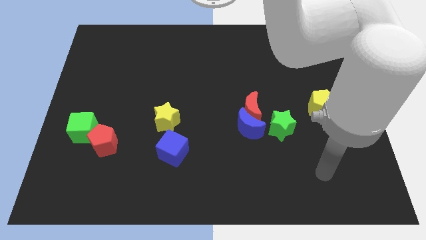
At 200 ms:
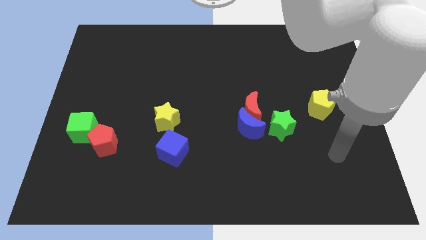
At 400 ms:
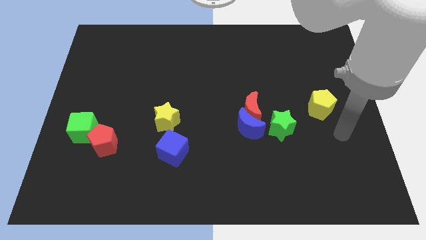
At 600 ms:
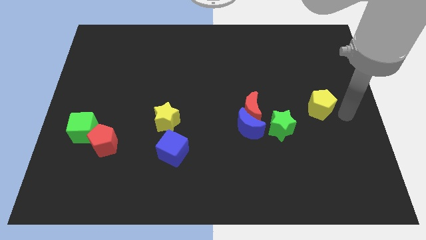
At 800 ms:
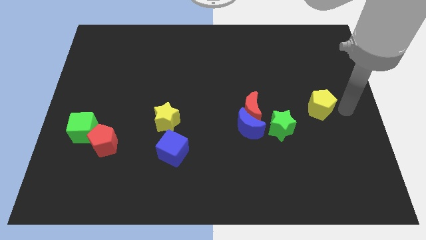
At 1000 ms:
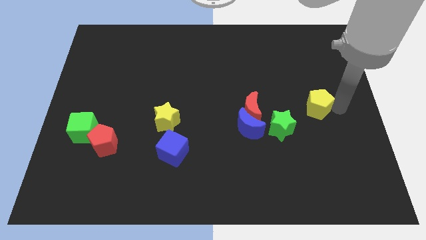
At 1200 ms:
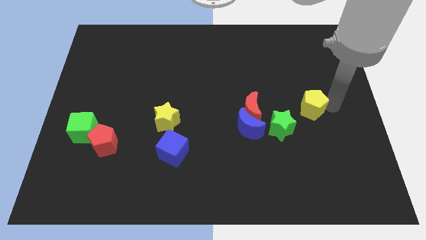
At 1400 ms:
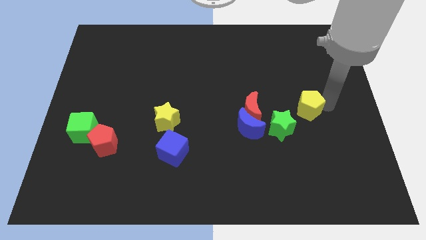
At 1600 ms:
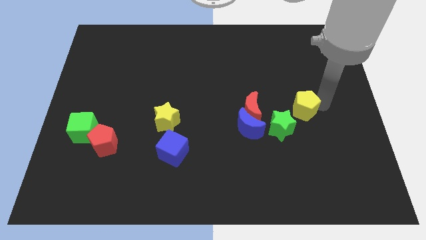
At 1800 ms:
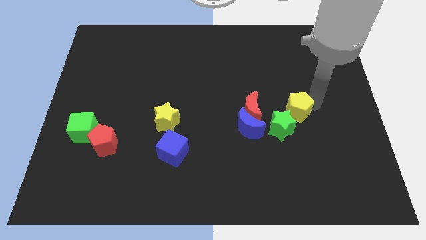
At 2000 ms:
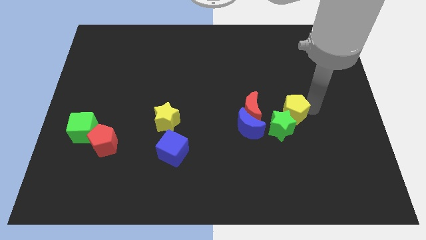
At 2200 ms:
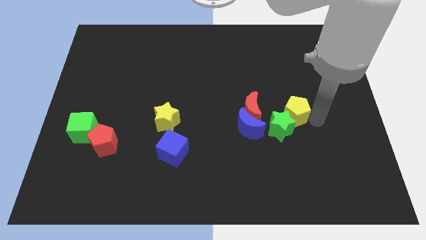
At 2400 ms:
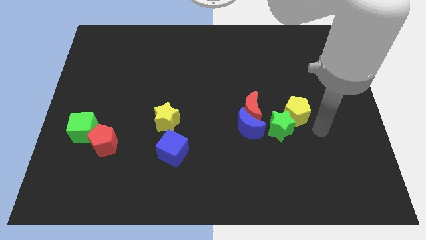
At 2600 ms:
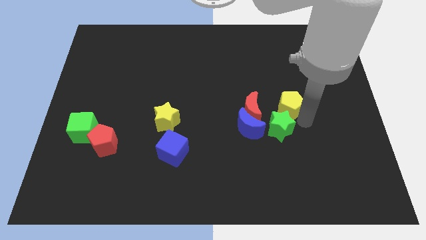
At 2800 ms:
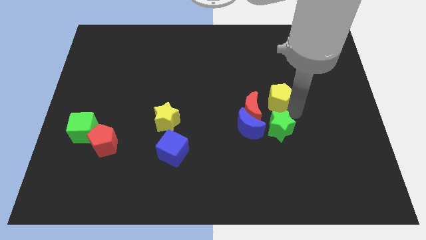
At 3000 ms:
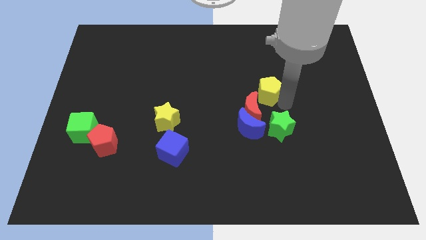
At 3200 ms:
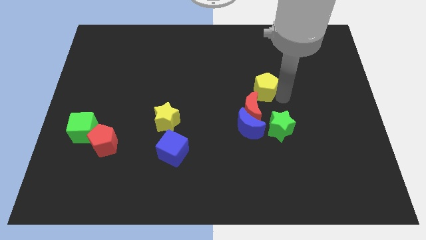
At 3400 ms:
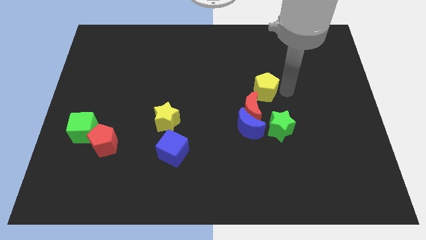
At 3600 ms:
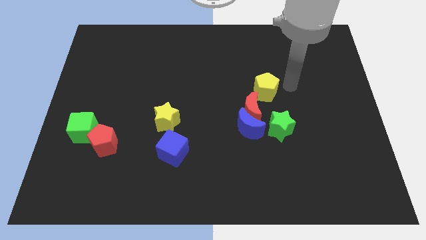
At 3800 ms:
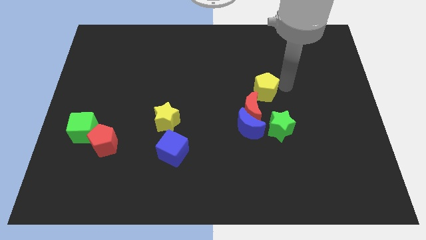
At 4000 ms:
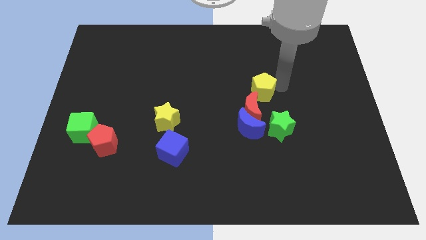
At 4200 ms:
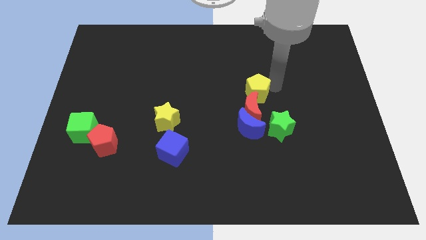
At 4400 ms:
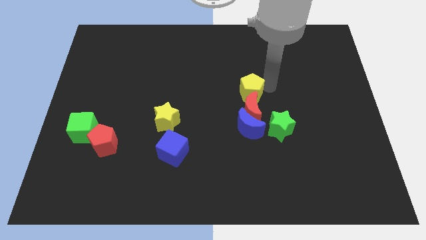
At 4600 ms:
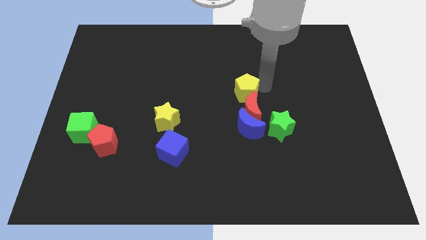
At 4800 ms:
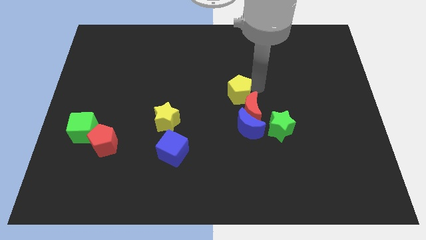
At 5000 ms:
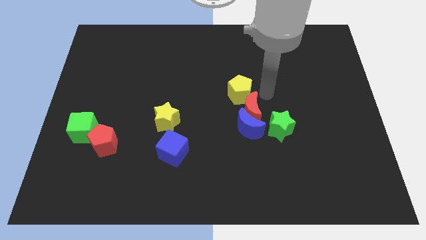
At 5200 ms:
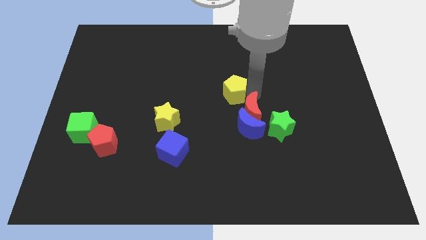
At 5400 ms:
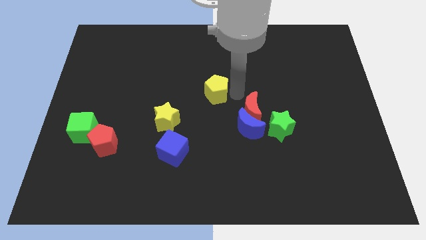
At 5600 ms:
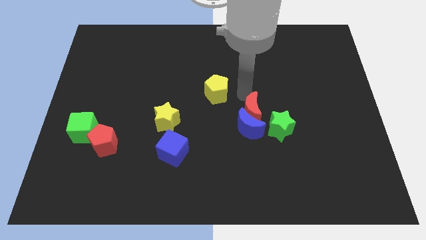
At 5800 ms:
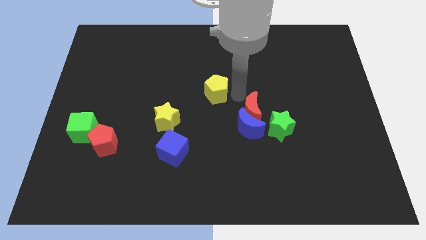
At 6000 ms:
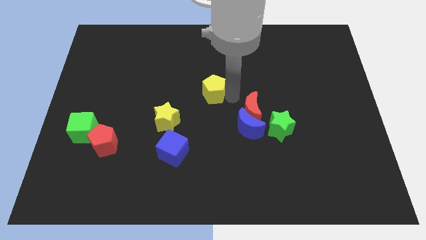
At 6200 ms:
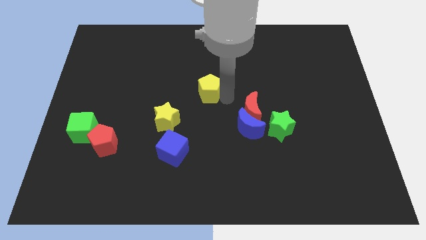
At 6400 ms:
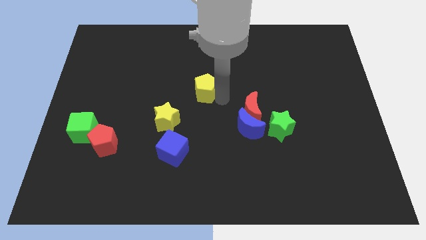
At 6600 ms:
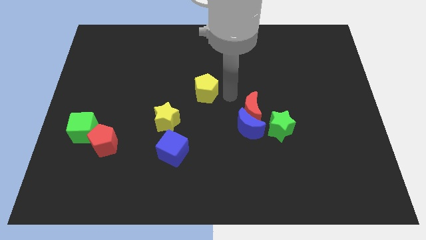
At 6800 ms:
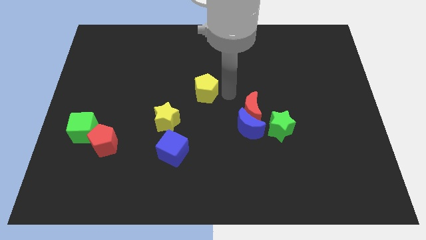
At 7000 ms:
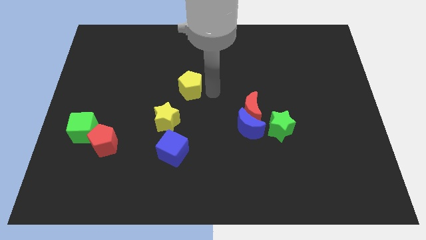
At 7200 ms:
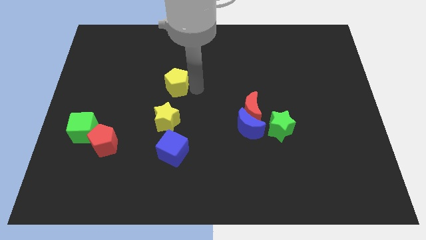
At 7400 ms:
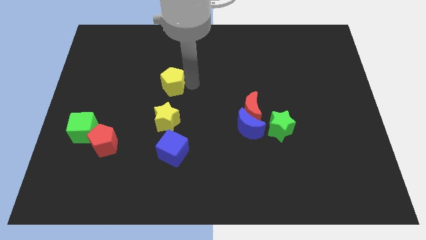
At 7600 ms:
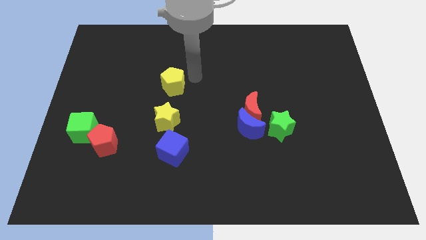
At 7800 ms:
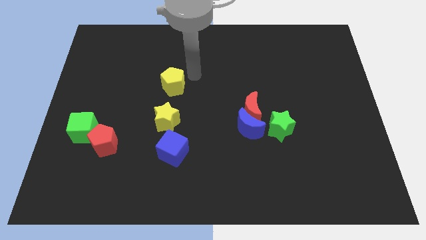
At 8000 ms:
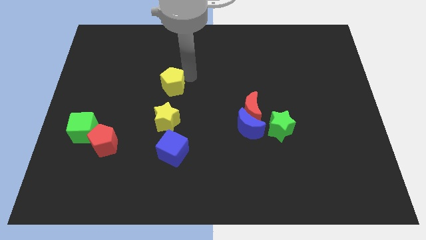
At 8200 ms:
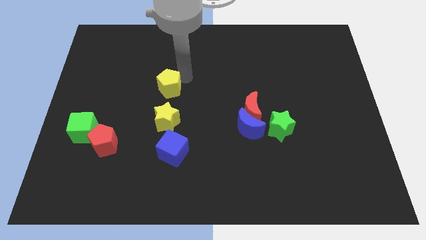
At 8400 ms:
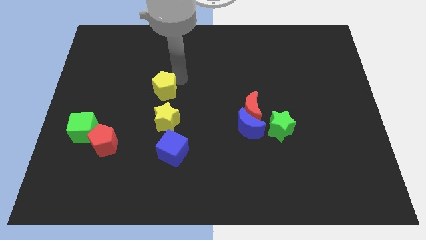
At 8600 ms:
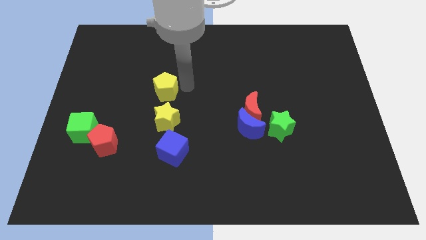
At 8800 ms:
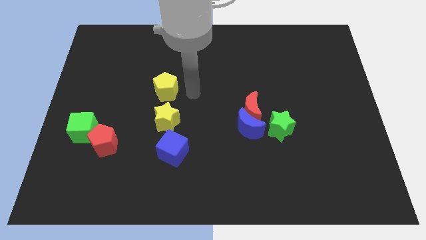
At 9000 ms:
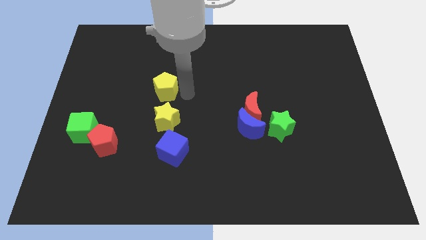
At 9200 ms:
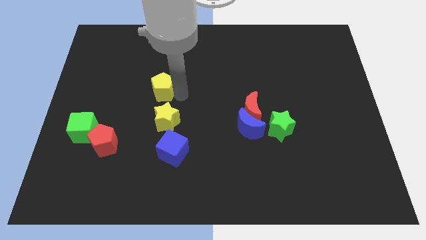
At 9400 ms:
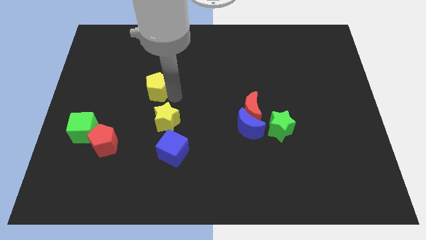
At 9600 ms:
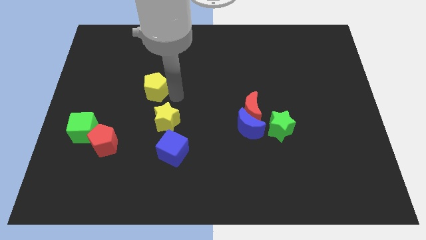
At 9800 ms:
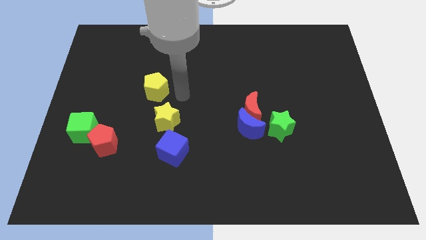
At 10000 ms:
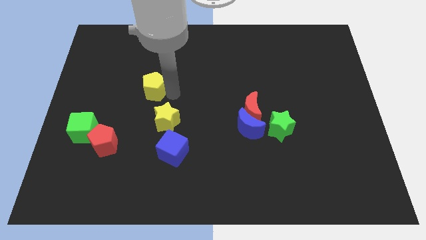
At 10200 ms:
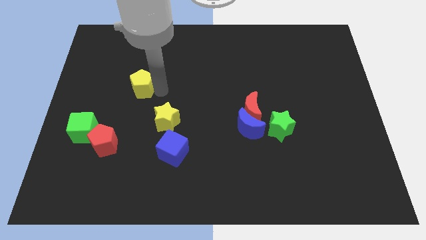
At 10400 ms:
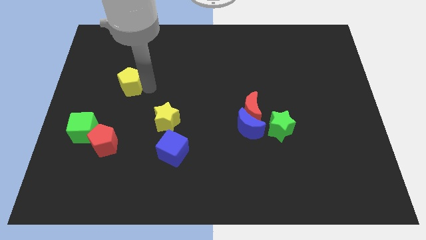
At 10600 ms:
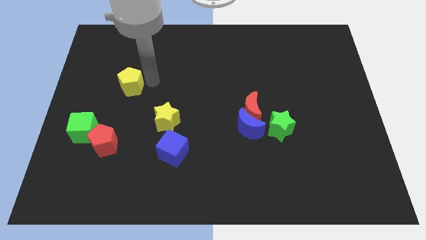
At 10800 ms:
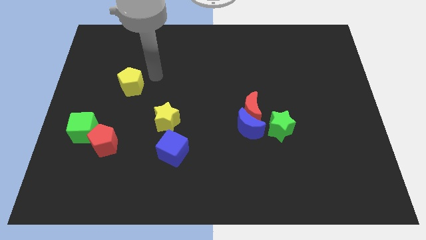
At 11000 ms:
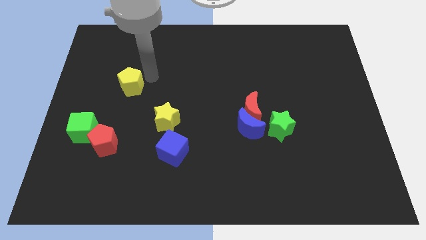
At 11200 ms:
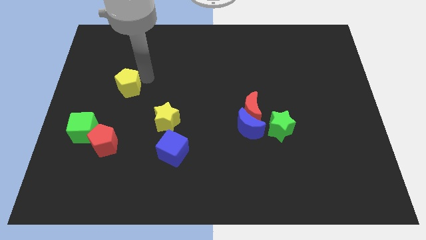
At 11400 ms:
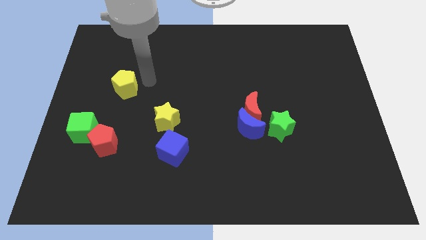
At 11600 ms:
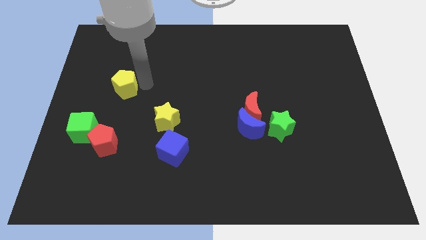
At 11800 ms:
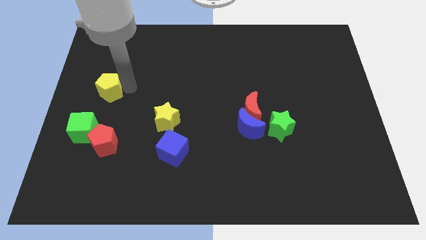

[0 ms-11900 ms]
put the yellow pentagon to the top of the green cube

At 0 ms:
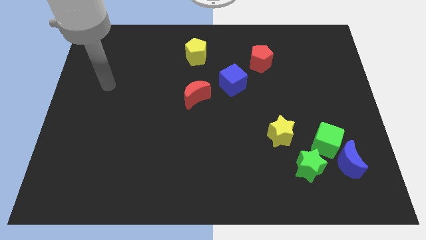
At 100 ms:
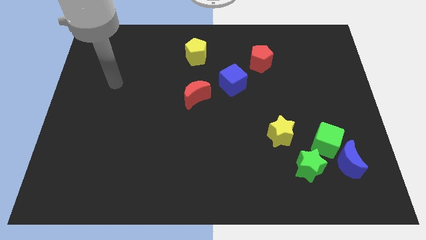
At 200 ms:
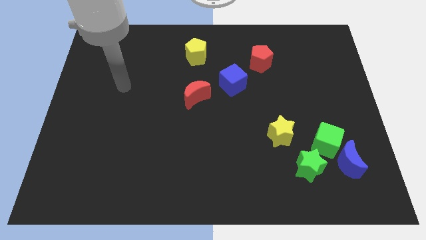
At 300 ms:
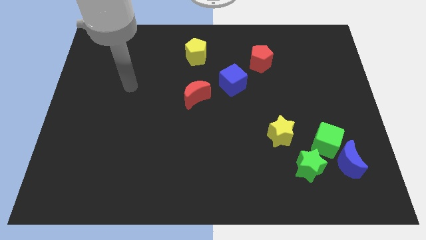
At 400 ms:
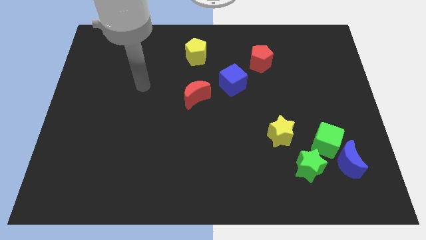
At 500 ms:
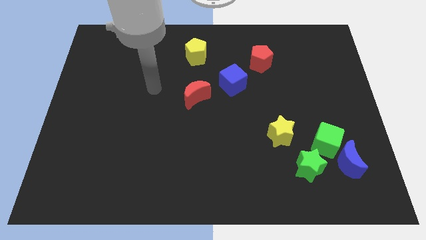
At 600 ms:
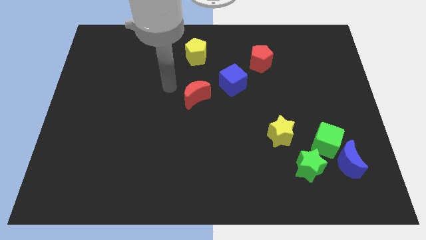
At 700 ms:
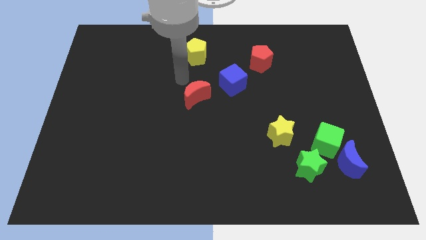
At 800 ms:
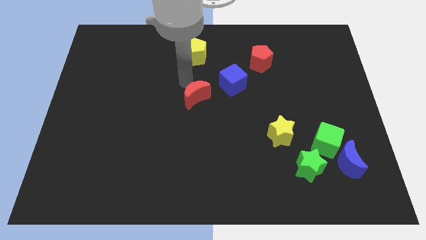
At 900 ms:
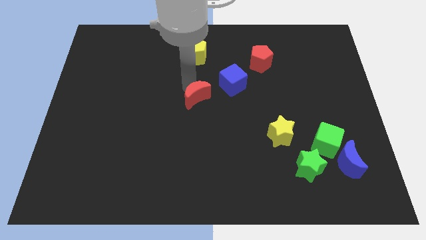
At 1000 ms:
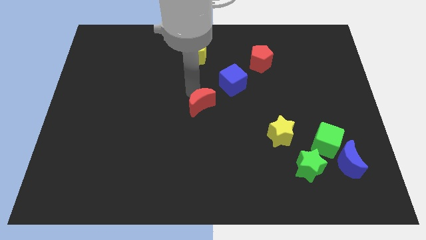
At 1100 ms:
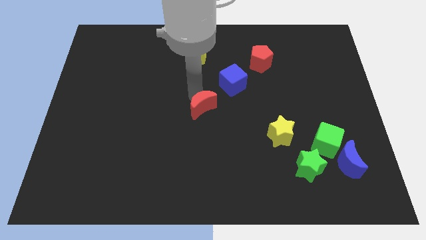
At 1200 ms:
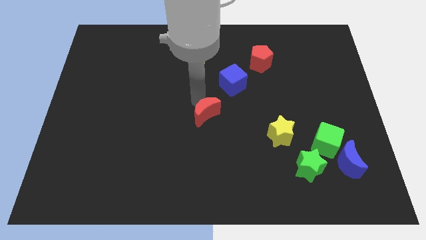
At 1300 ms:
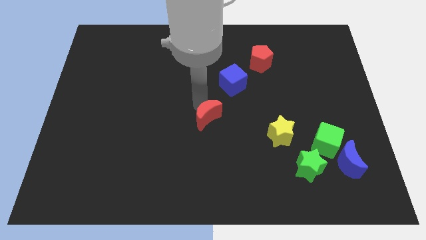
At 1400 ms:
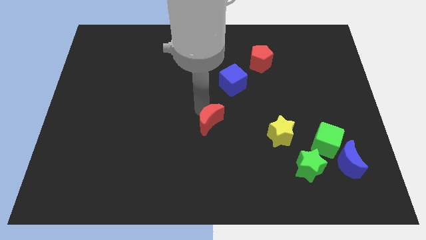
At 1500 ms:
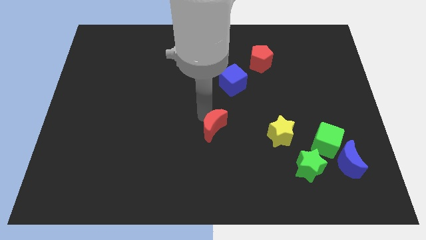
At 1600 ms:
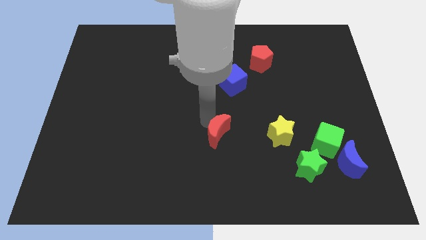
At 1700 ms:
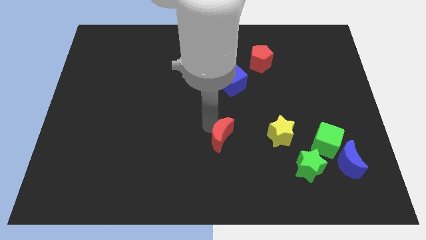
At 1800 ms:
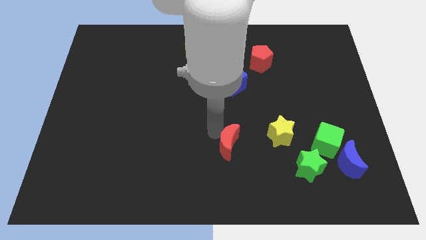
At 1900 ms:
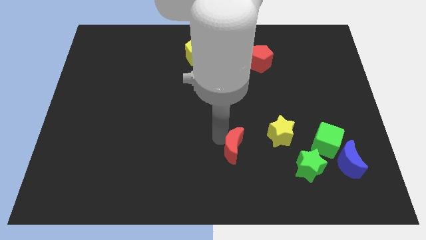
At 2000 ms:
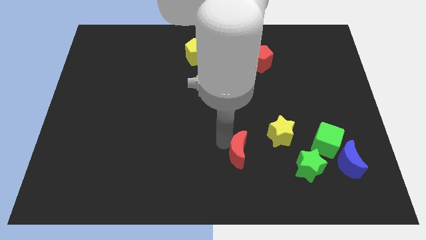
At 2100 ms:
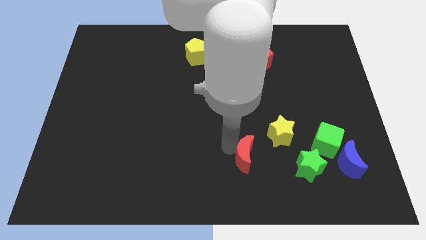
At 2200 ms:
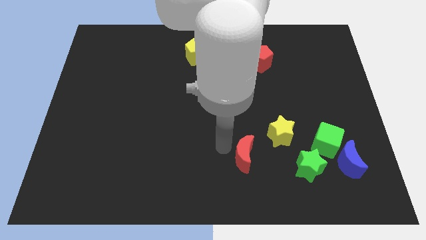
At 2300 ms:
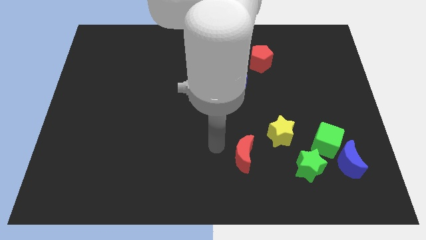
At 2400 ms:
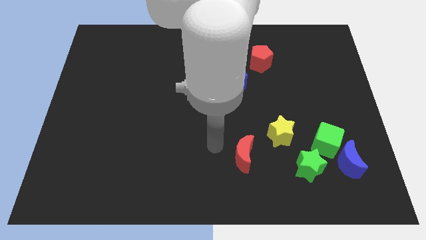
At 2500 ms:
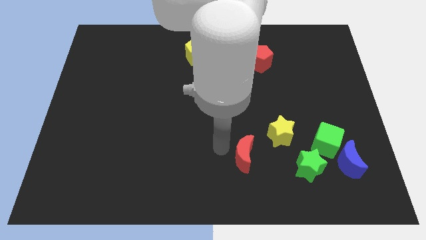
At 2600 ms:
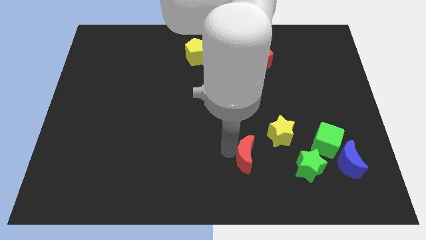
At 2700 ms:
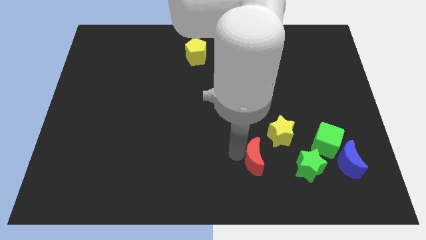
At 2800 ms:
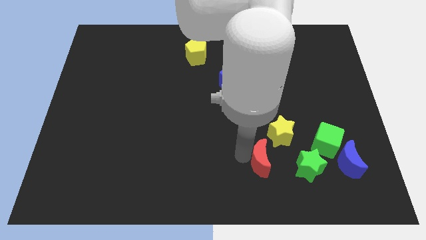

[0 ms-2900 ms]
slide the red moon to the bottom side of the yellow star
